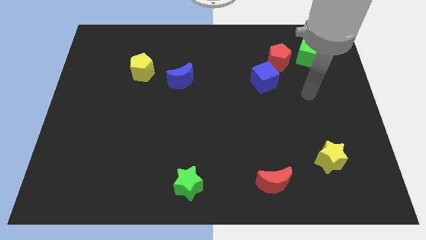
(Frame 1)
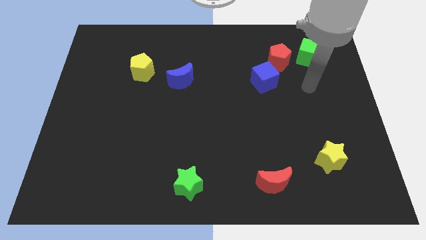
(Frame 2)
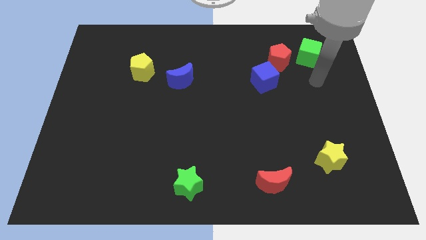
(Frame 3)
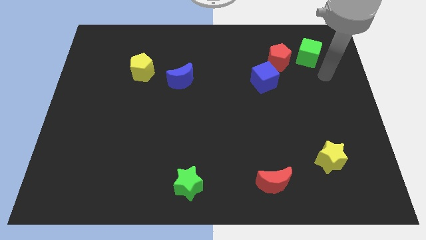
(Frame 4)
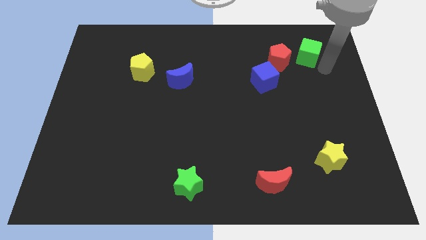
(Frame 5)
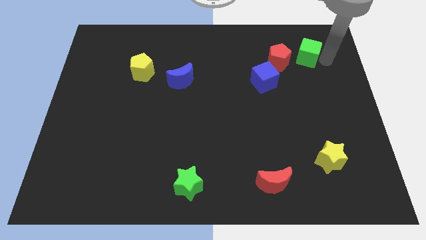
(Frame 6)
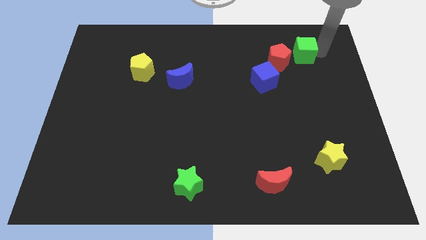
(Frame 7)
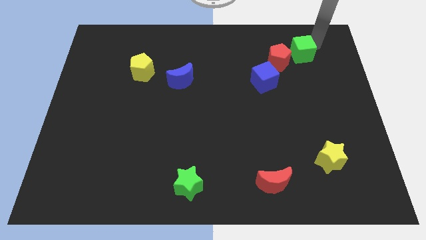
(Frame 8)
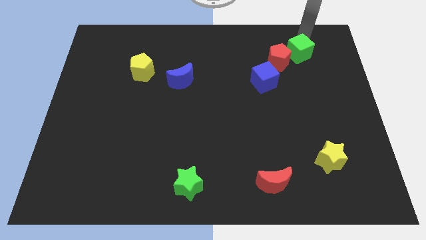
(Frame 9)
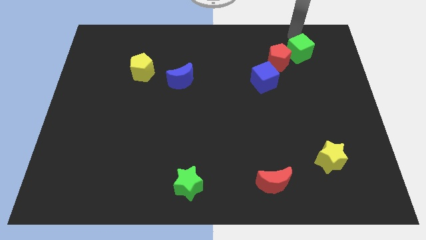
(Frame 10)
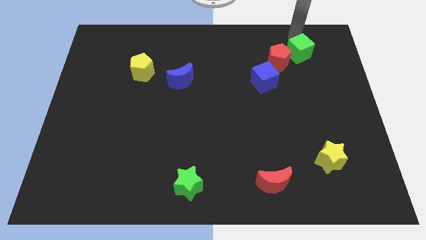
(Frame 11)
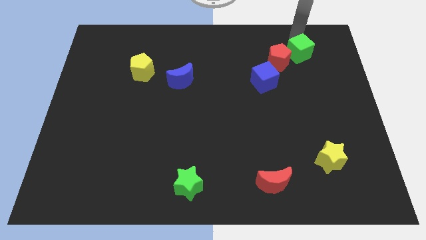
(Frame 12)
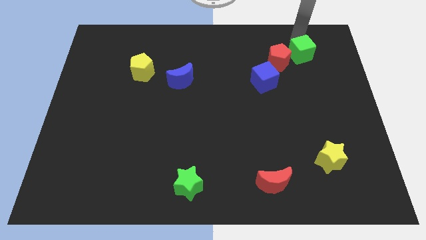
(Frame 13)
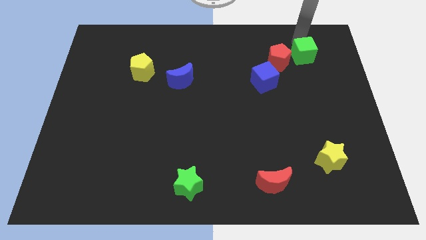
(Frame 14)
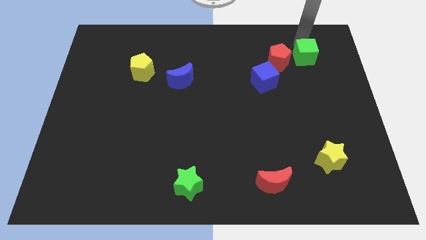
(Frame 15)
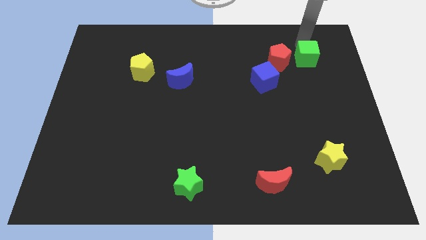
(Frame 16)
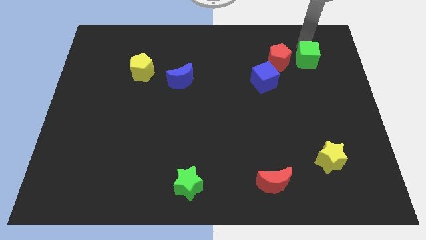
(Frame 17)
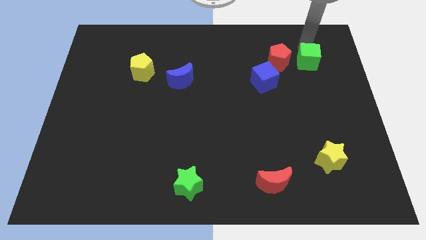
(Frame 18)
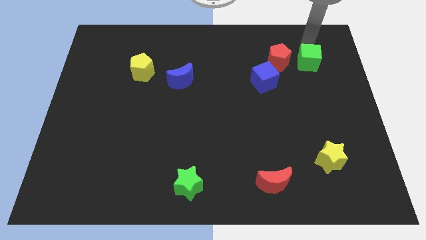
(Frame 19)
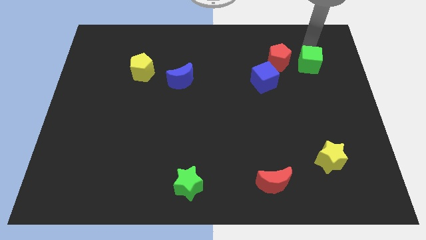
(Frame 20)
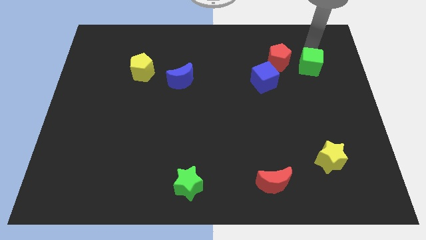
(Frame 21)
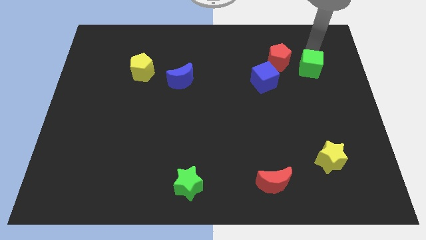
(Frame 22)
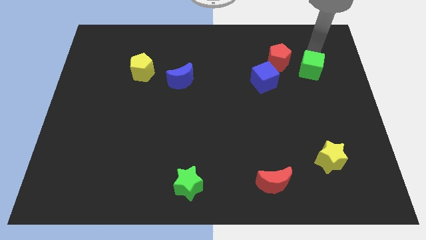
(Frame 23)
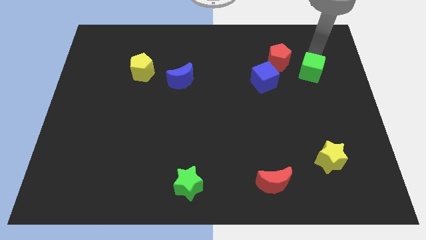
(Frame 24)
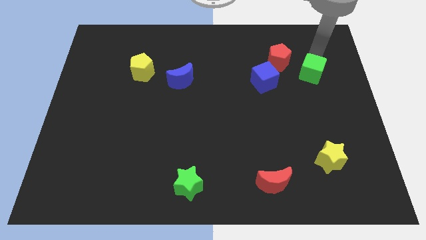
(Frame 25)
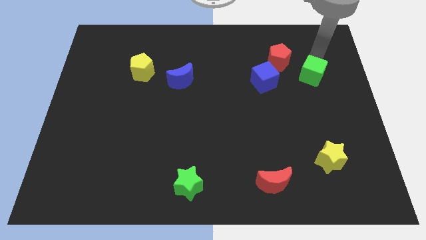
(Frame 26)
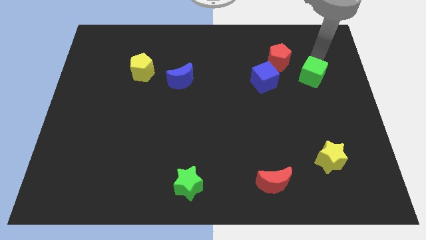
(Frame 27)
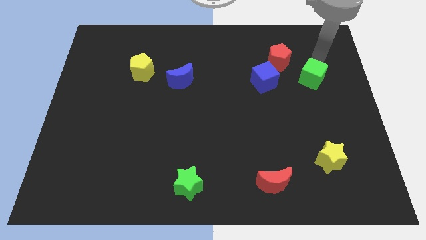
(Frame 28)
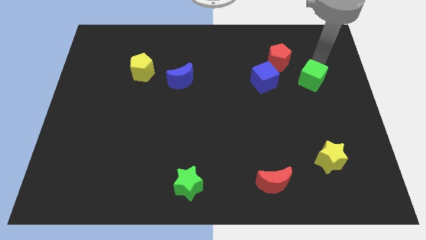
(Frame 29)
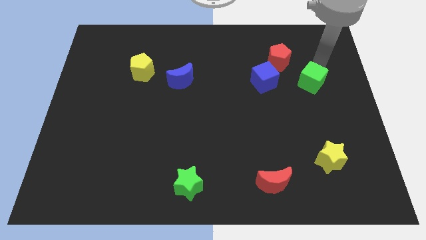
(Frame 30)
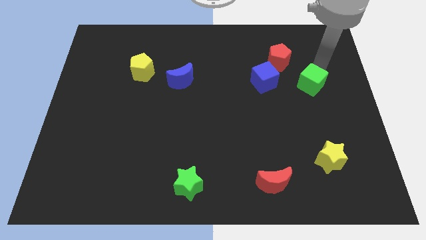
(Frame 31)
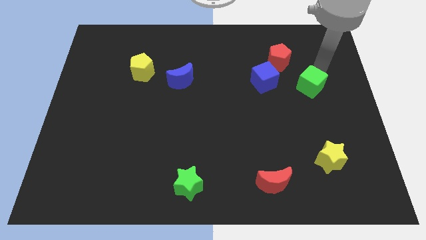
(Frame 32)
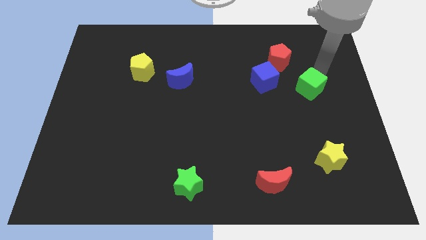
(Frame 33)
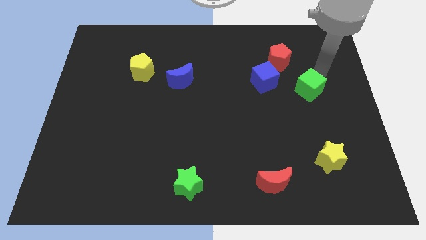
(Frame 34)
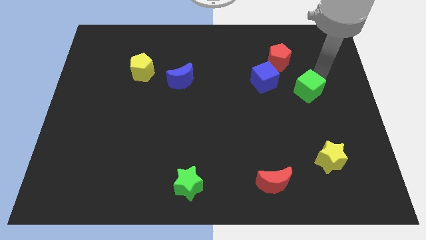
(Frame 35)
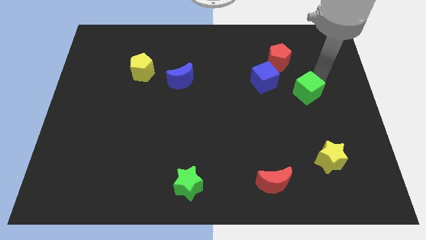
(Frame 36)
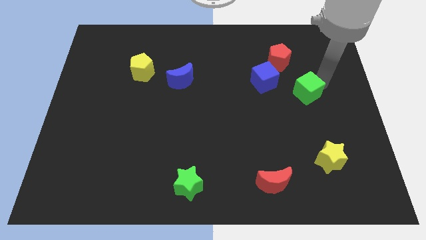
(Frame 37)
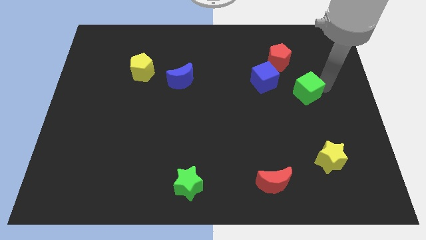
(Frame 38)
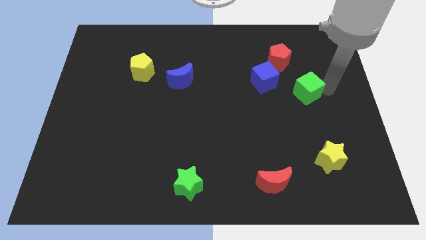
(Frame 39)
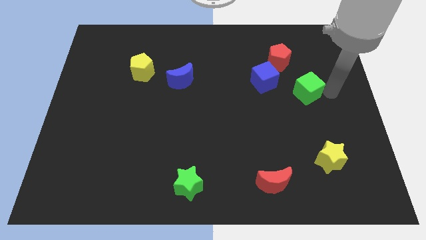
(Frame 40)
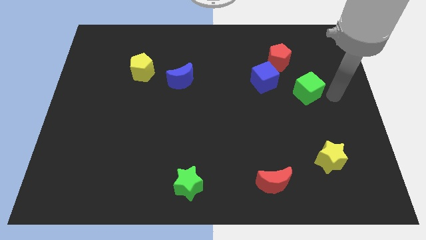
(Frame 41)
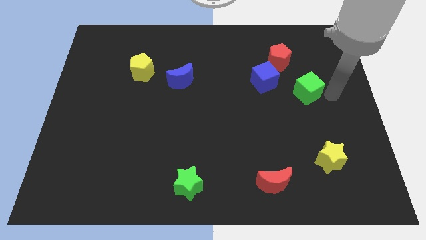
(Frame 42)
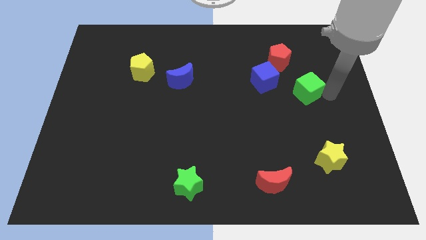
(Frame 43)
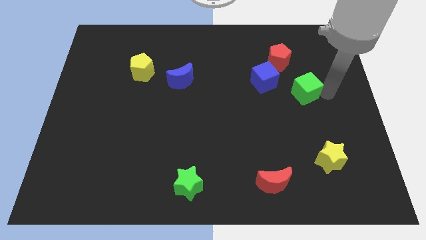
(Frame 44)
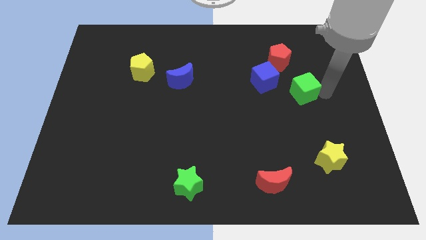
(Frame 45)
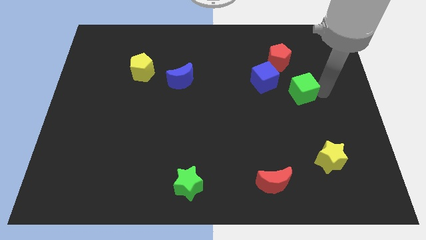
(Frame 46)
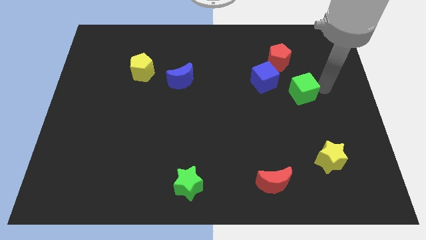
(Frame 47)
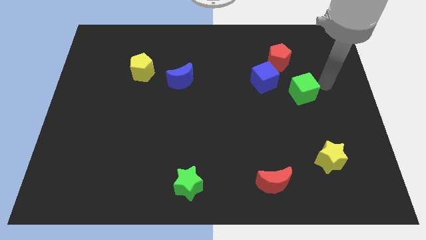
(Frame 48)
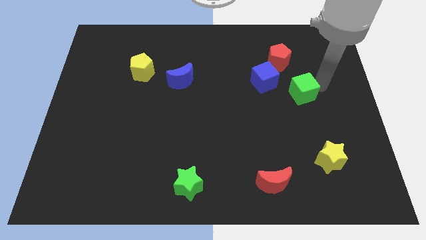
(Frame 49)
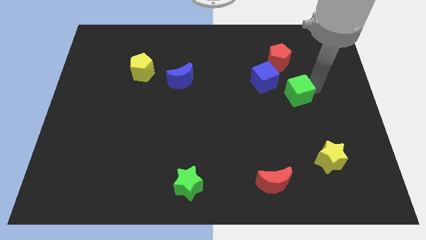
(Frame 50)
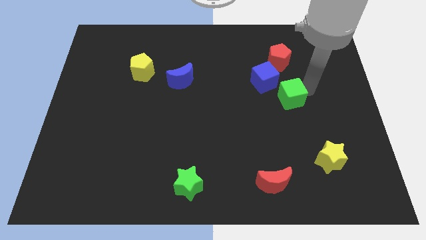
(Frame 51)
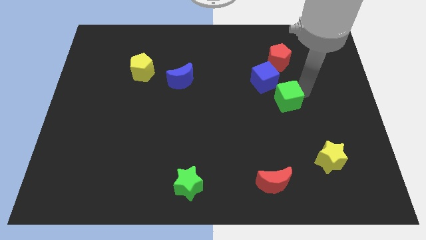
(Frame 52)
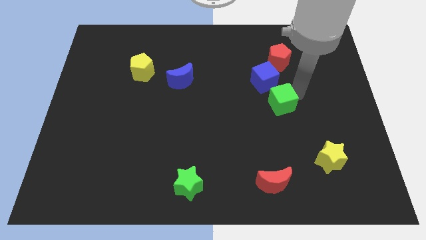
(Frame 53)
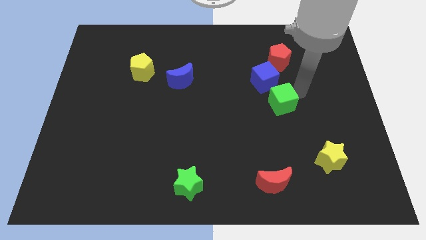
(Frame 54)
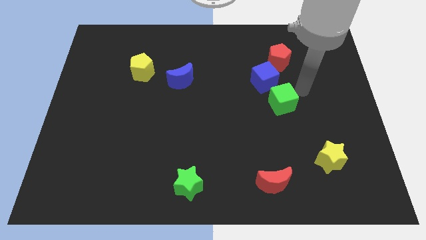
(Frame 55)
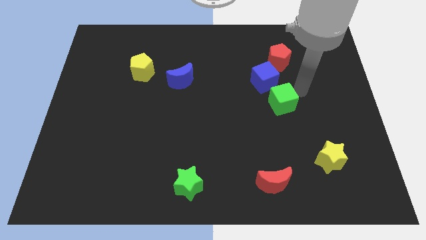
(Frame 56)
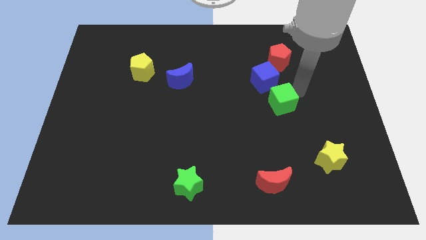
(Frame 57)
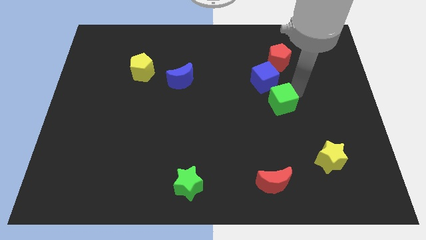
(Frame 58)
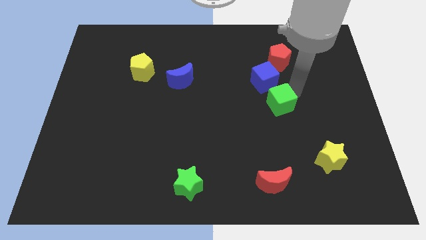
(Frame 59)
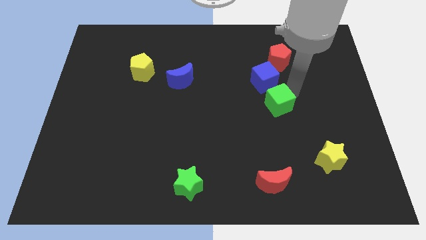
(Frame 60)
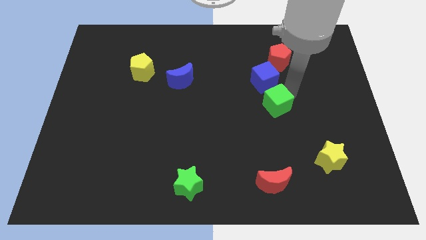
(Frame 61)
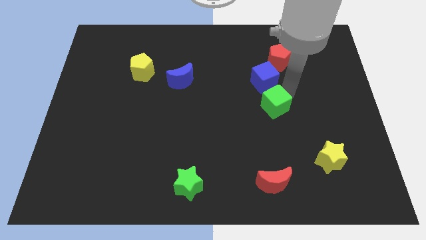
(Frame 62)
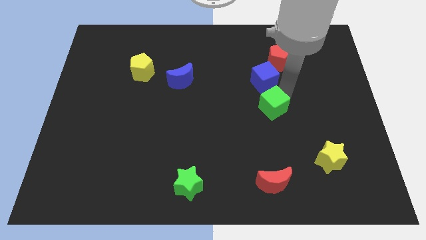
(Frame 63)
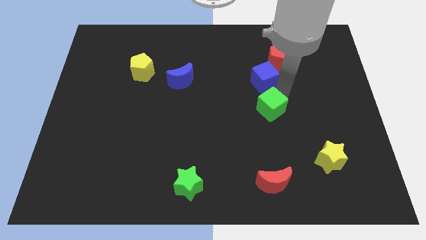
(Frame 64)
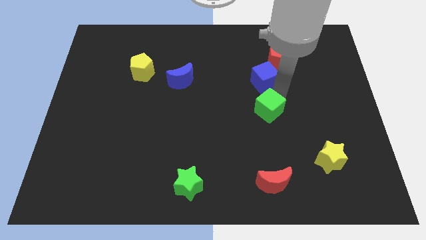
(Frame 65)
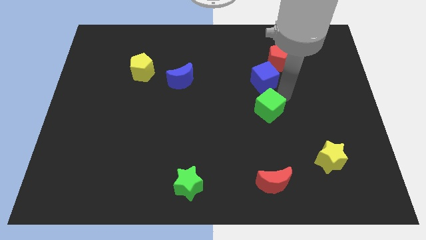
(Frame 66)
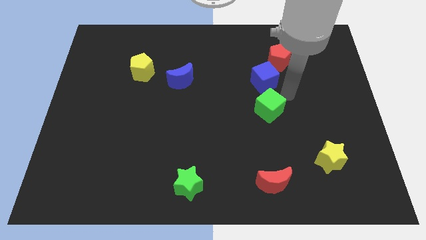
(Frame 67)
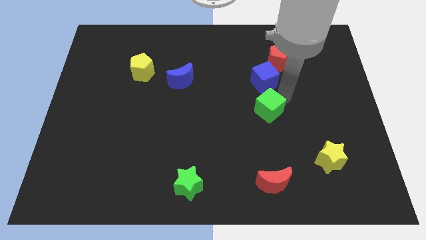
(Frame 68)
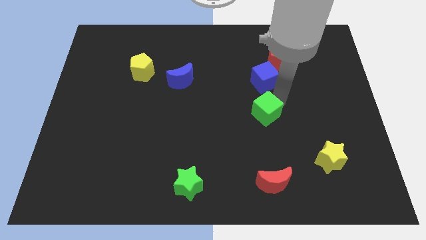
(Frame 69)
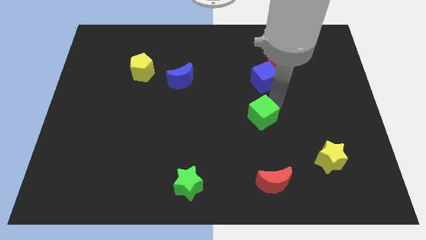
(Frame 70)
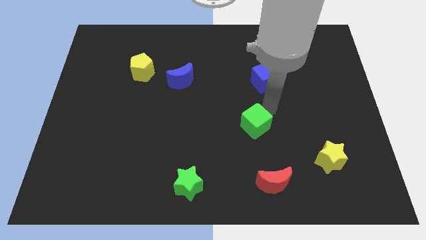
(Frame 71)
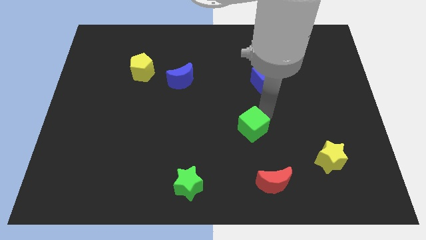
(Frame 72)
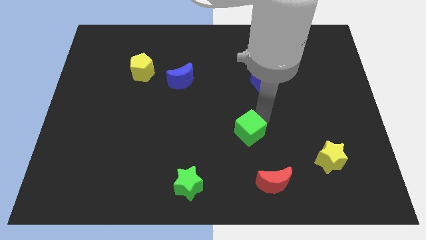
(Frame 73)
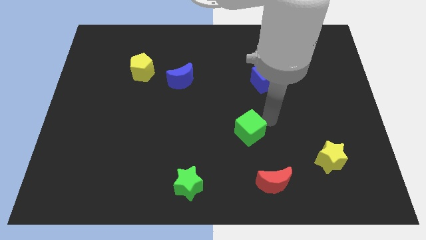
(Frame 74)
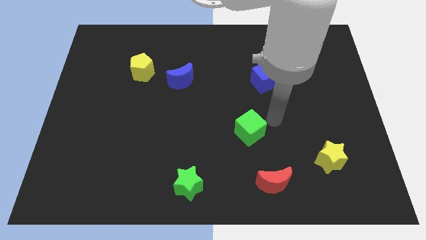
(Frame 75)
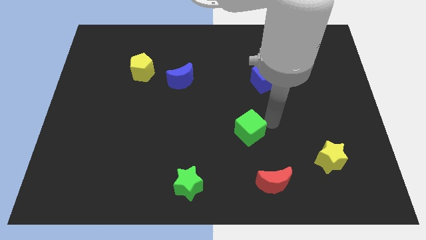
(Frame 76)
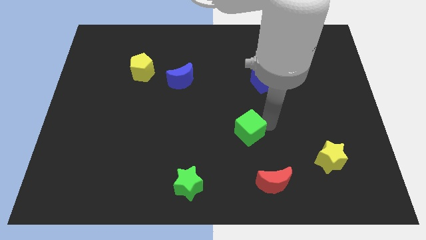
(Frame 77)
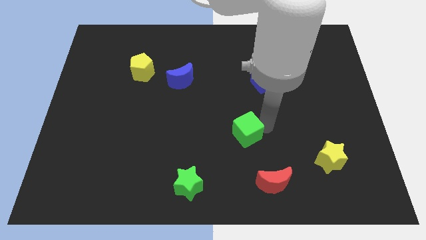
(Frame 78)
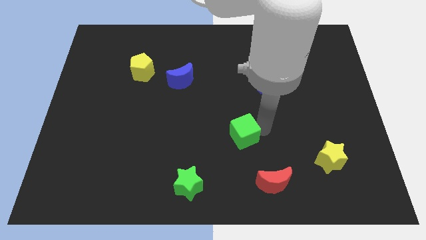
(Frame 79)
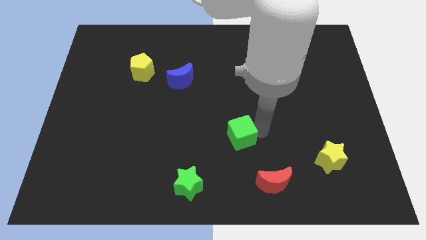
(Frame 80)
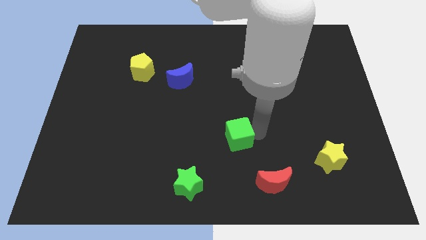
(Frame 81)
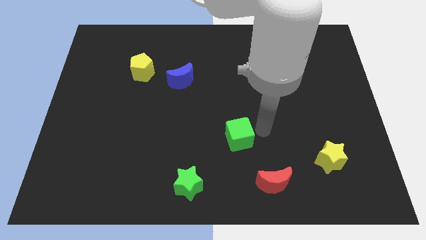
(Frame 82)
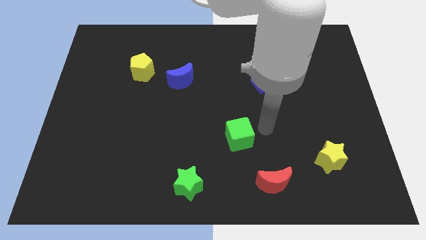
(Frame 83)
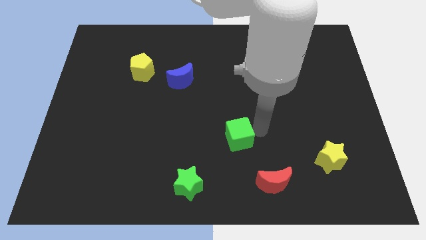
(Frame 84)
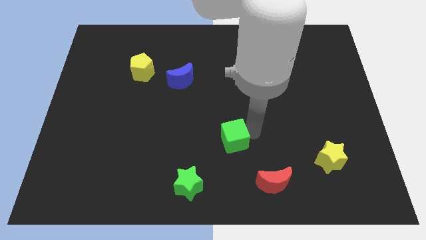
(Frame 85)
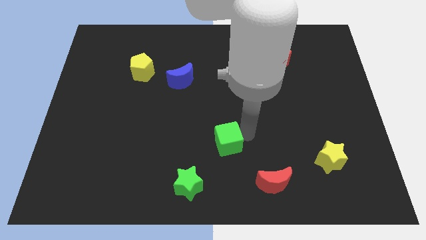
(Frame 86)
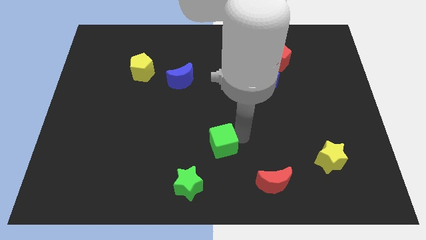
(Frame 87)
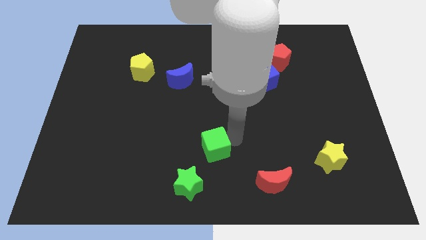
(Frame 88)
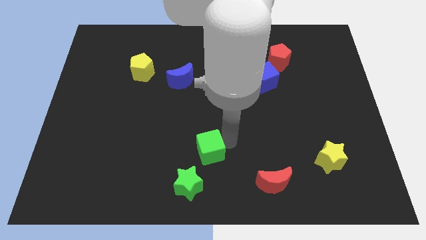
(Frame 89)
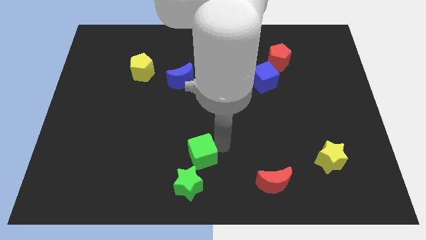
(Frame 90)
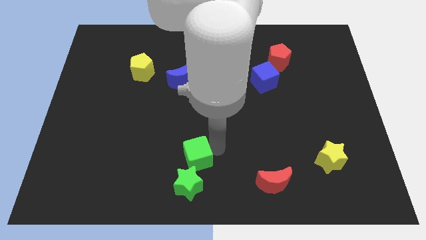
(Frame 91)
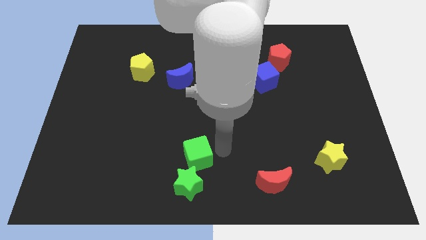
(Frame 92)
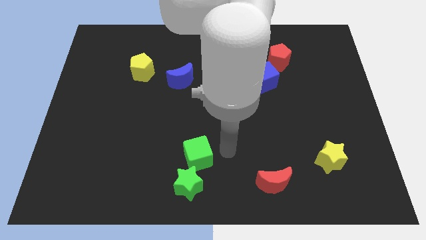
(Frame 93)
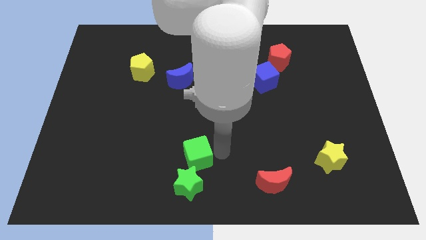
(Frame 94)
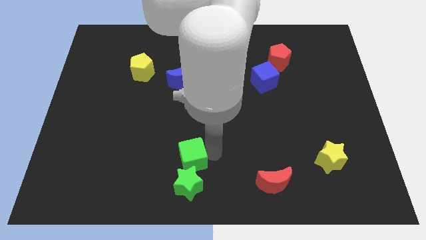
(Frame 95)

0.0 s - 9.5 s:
push the green cube diagonally up and to the left of the green star
